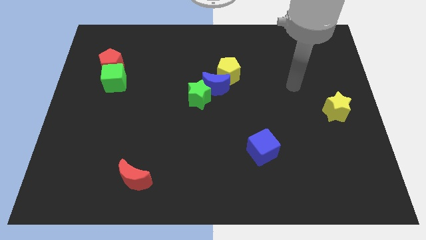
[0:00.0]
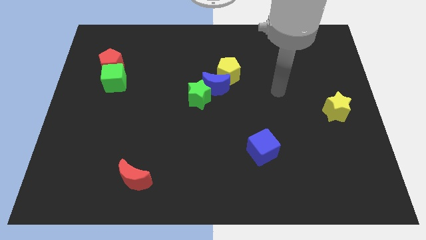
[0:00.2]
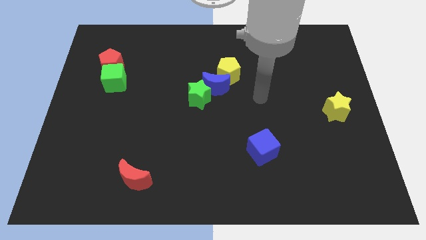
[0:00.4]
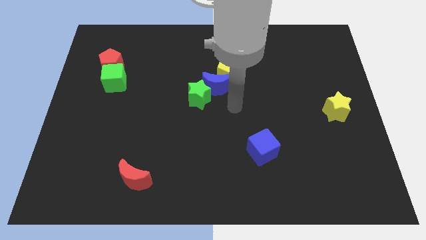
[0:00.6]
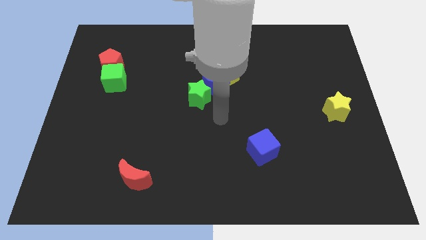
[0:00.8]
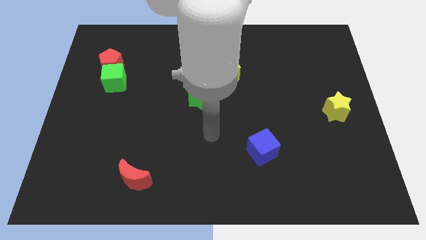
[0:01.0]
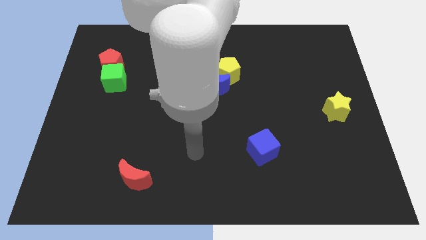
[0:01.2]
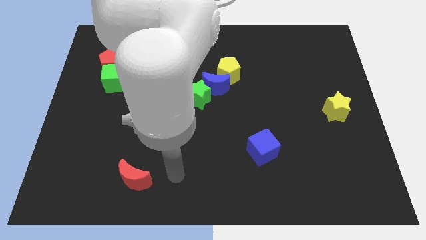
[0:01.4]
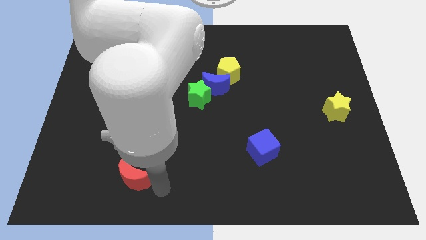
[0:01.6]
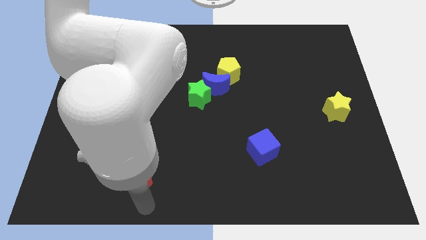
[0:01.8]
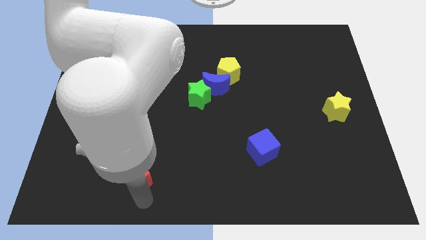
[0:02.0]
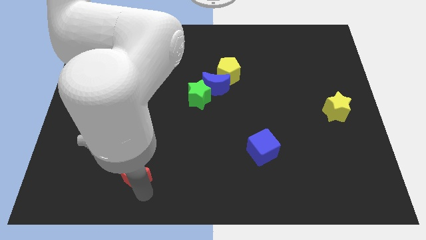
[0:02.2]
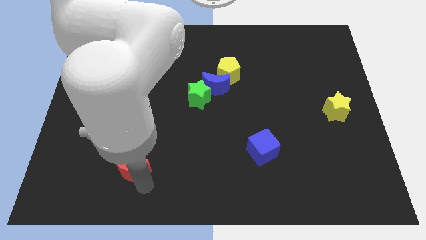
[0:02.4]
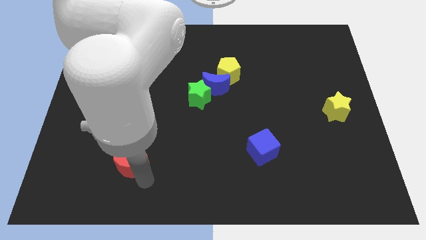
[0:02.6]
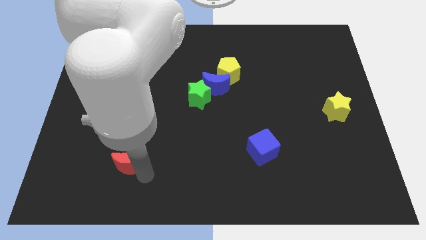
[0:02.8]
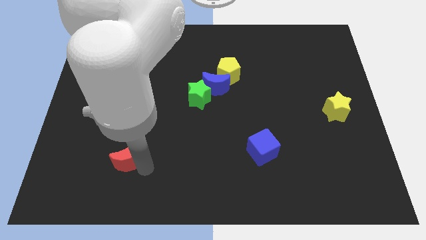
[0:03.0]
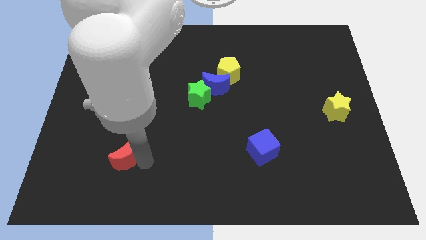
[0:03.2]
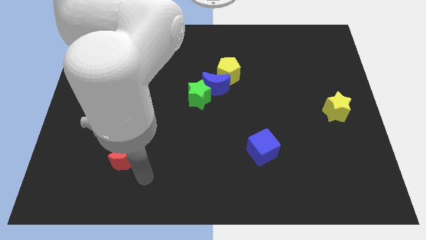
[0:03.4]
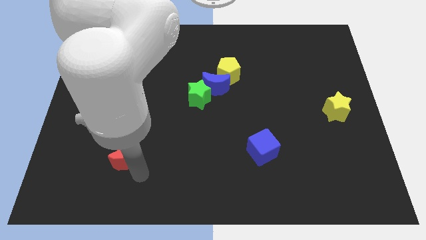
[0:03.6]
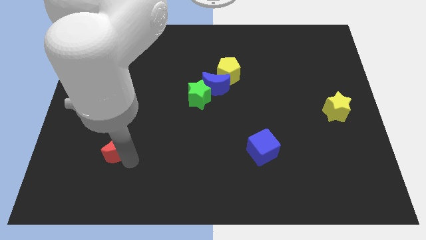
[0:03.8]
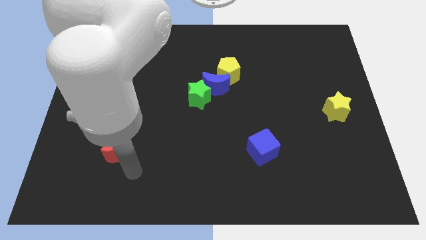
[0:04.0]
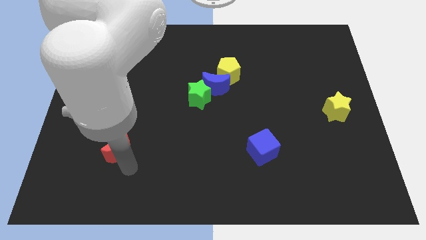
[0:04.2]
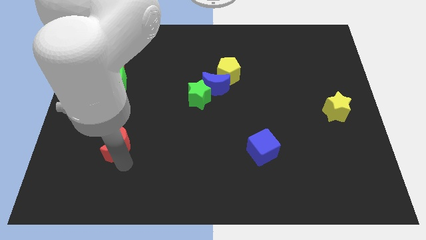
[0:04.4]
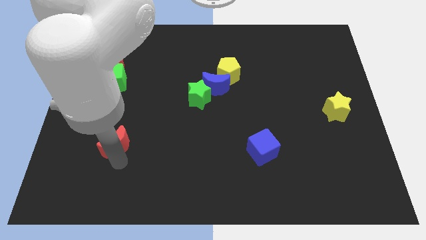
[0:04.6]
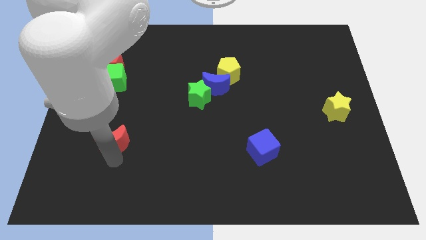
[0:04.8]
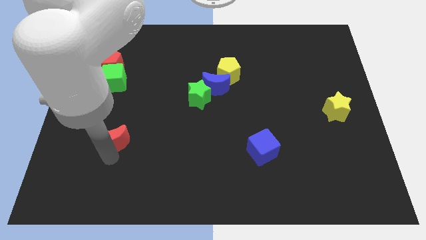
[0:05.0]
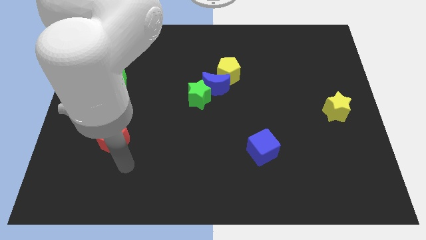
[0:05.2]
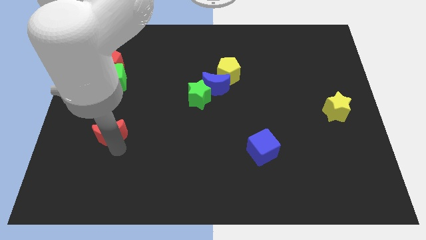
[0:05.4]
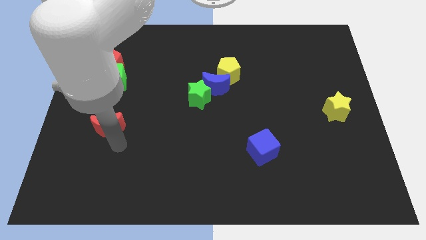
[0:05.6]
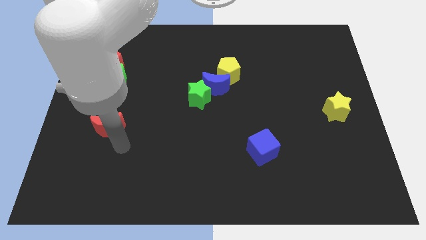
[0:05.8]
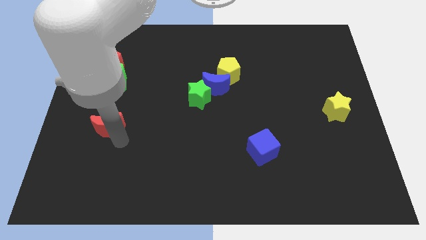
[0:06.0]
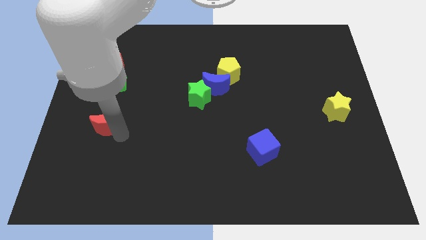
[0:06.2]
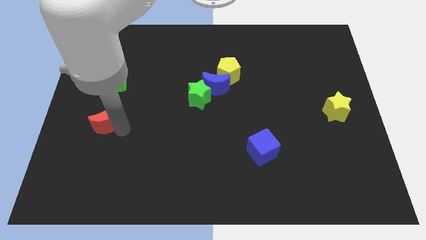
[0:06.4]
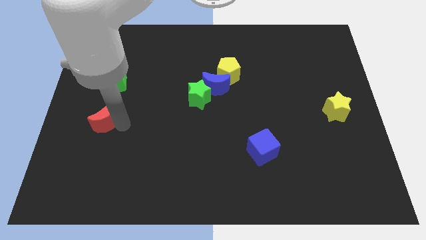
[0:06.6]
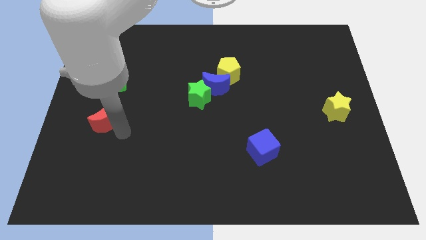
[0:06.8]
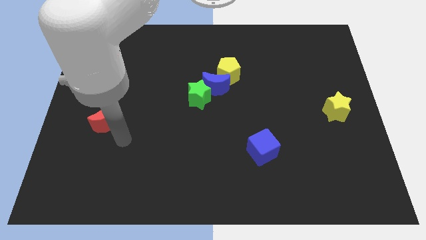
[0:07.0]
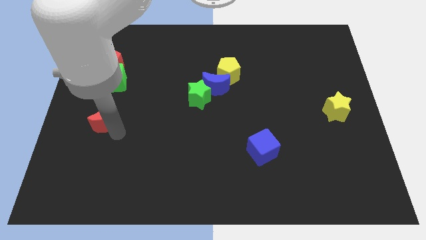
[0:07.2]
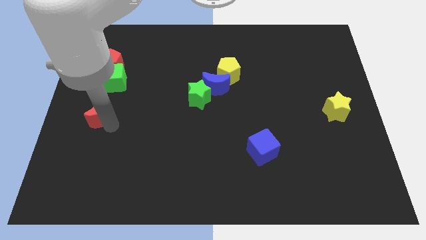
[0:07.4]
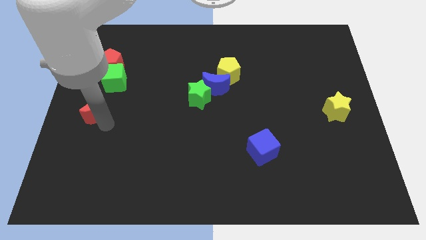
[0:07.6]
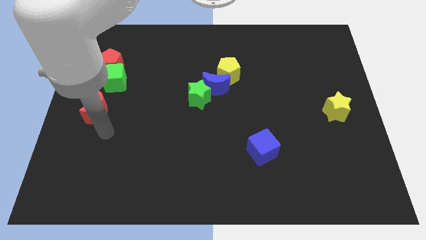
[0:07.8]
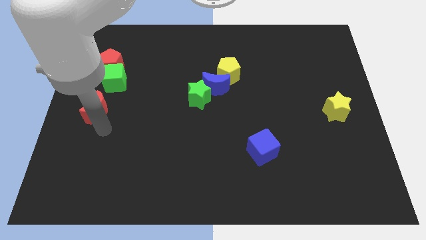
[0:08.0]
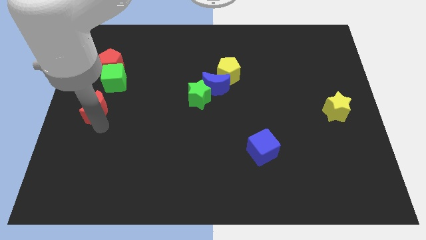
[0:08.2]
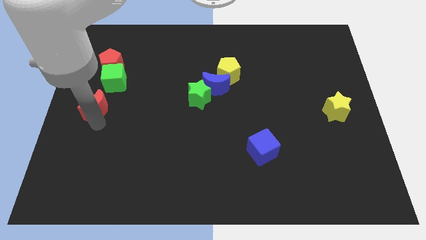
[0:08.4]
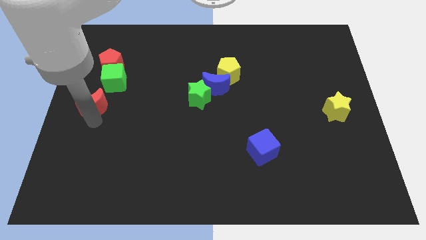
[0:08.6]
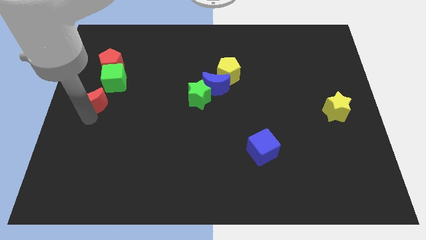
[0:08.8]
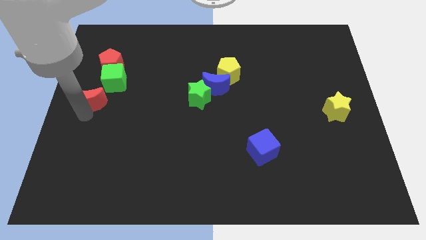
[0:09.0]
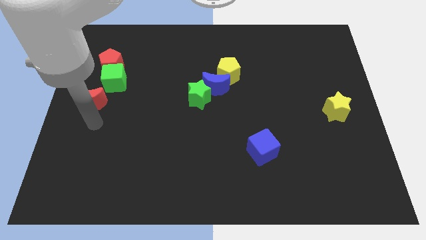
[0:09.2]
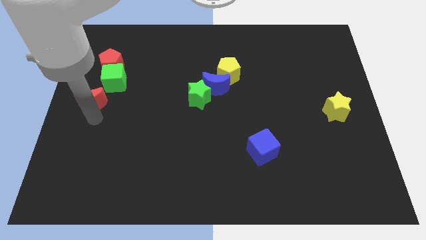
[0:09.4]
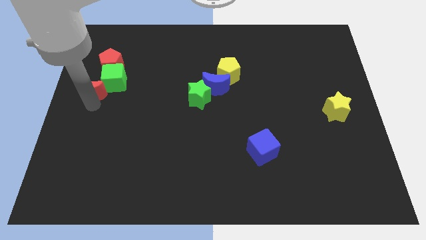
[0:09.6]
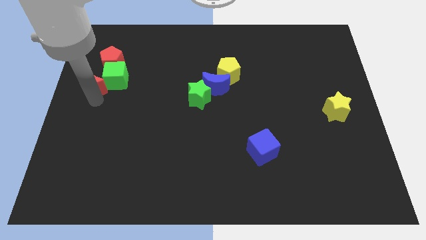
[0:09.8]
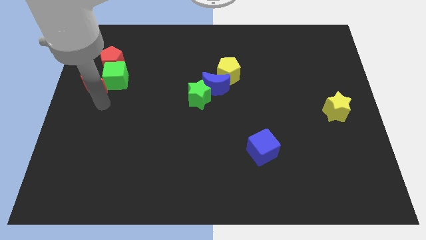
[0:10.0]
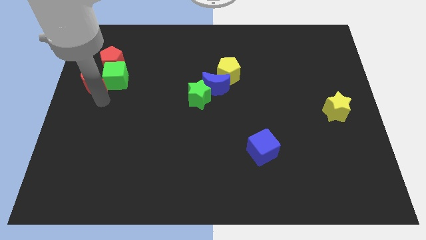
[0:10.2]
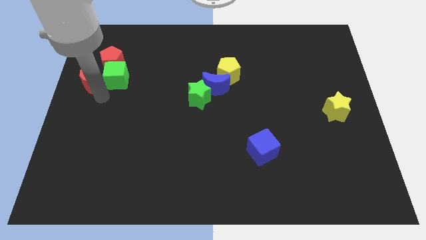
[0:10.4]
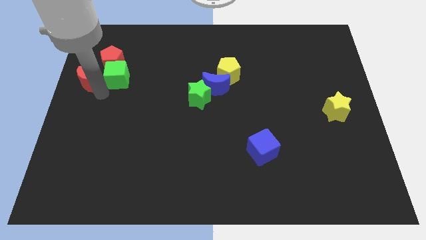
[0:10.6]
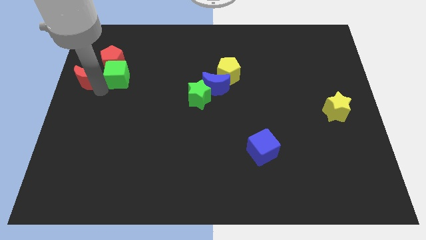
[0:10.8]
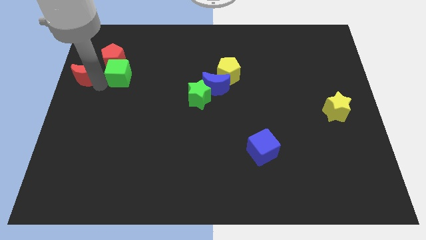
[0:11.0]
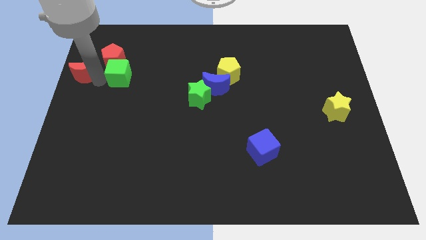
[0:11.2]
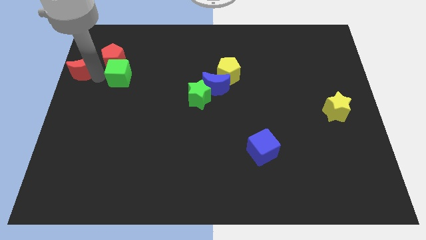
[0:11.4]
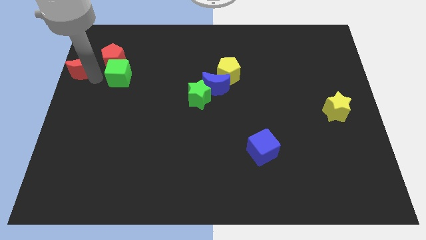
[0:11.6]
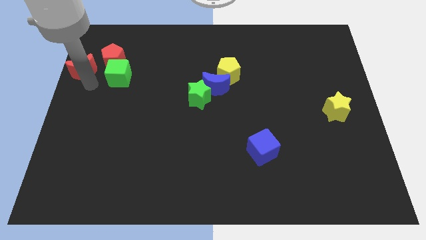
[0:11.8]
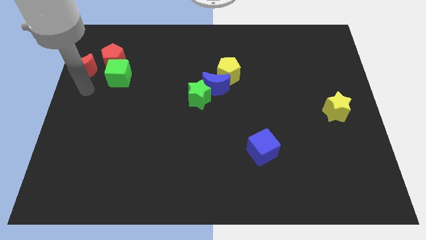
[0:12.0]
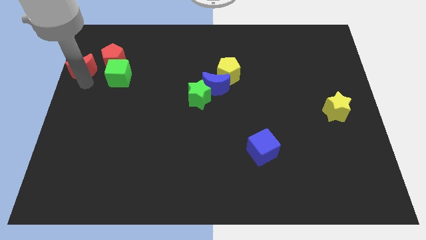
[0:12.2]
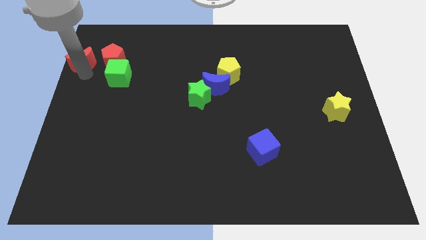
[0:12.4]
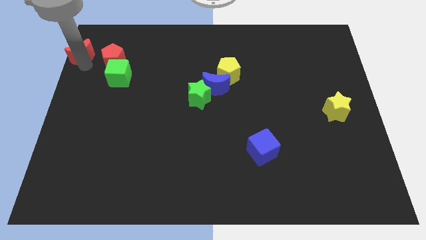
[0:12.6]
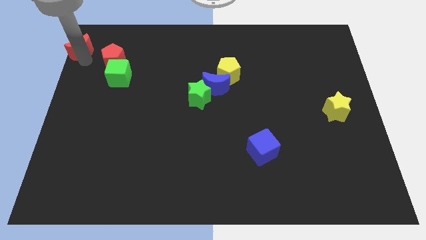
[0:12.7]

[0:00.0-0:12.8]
slide the red moon to the top left corner

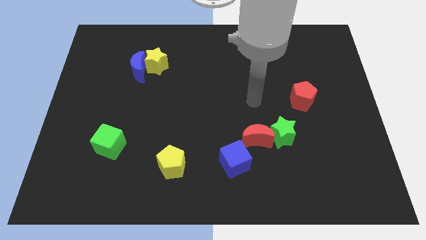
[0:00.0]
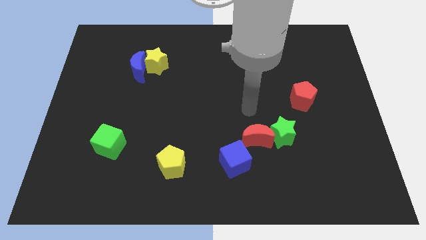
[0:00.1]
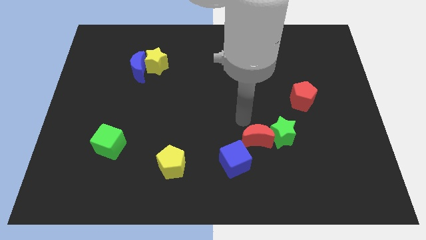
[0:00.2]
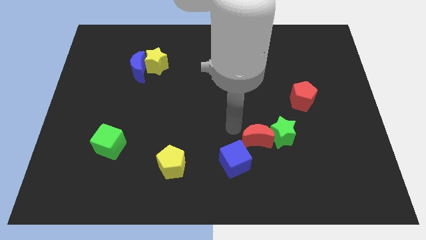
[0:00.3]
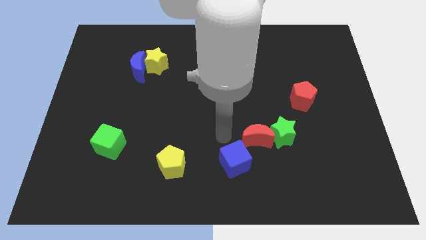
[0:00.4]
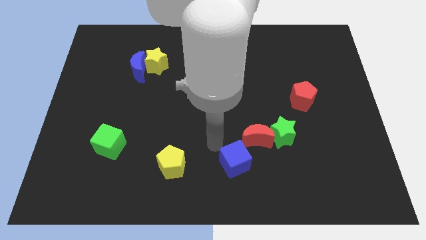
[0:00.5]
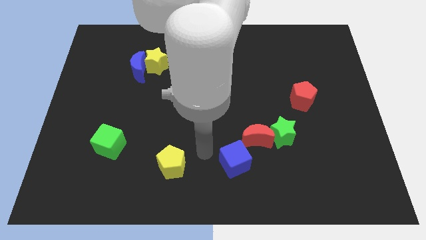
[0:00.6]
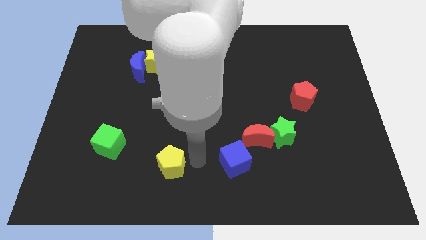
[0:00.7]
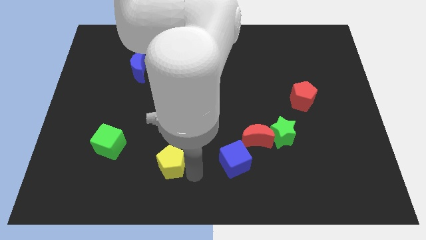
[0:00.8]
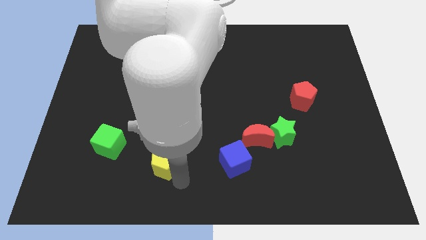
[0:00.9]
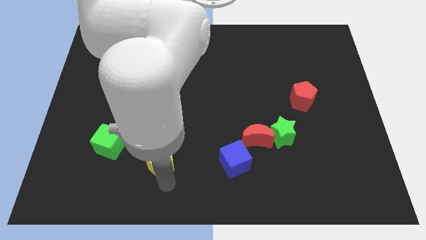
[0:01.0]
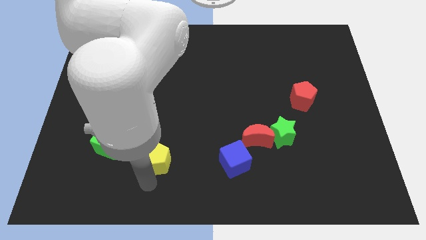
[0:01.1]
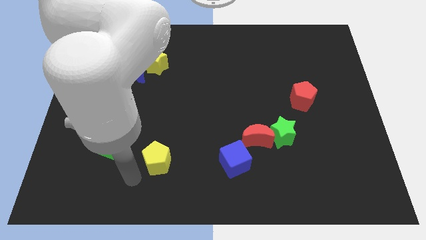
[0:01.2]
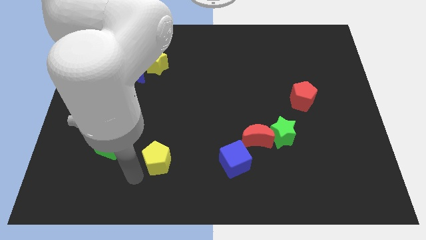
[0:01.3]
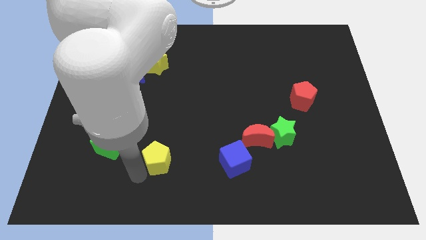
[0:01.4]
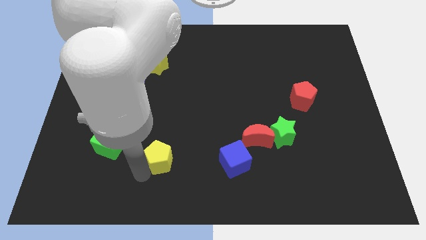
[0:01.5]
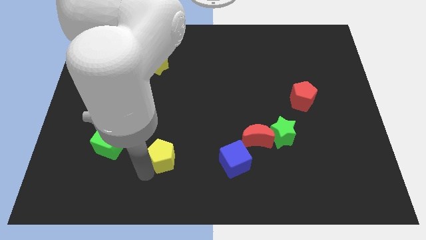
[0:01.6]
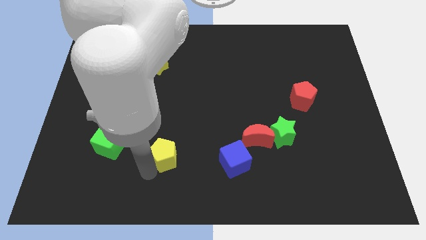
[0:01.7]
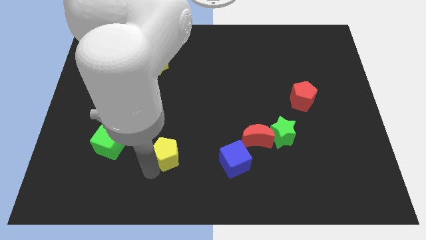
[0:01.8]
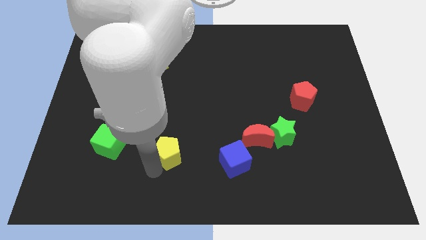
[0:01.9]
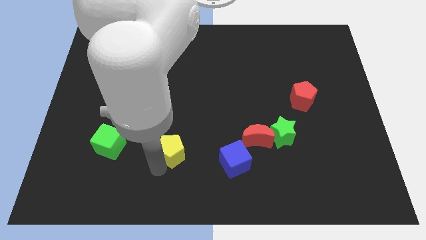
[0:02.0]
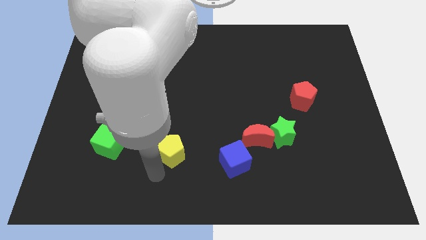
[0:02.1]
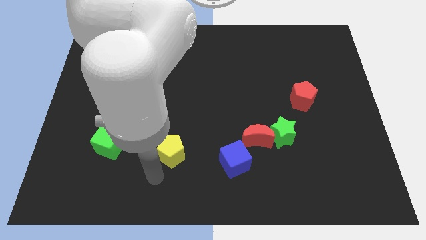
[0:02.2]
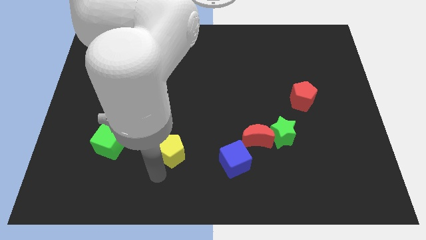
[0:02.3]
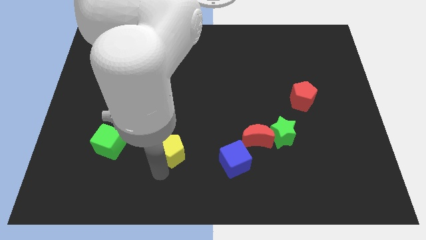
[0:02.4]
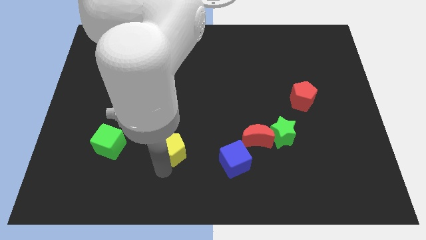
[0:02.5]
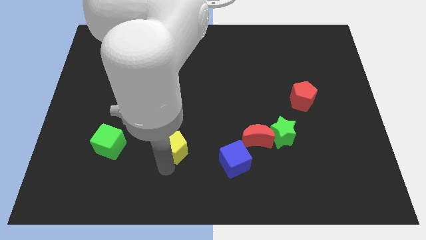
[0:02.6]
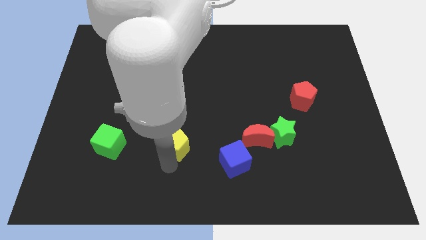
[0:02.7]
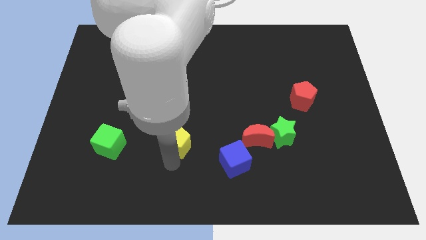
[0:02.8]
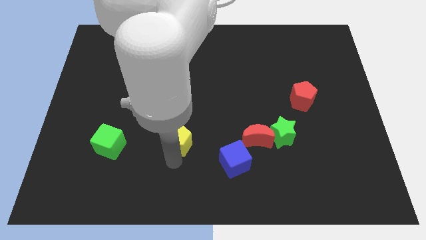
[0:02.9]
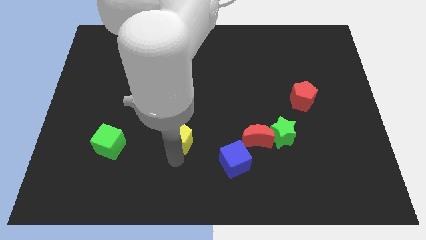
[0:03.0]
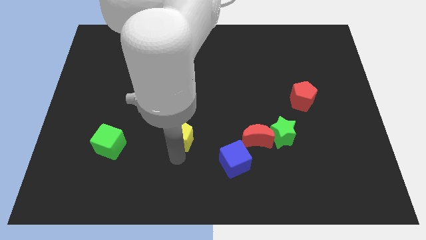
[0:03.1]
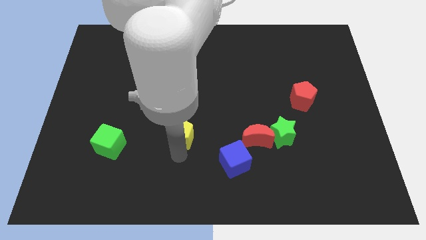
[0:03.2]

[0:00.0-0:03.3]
move the yellow pentagon to the middle of the board
